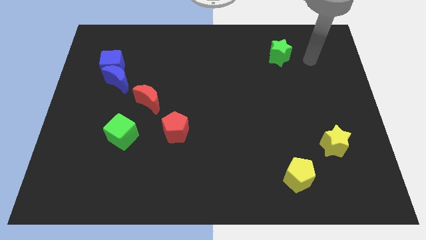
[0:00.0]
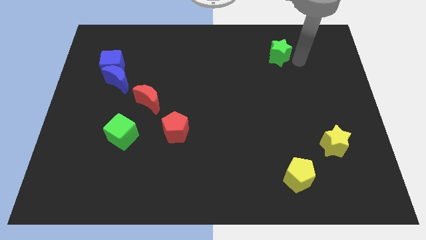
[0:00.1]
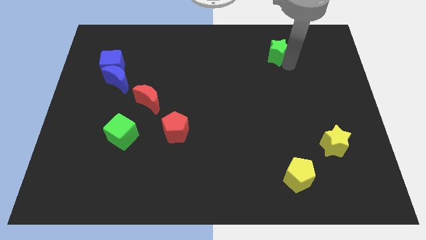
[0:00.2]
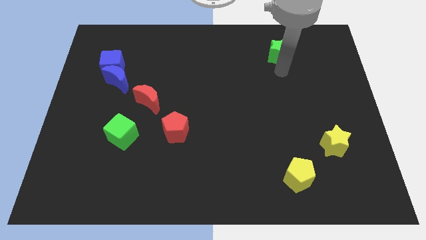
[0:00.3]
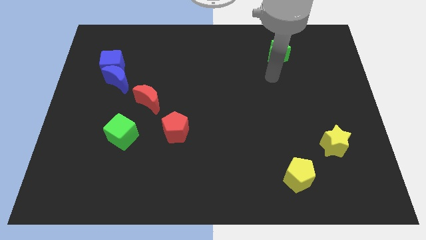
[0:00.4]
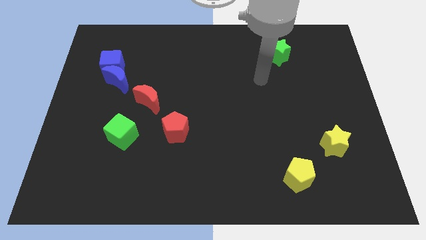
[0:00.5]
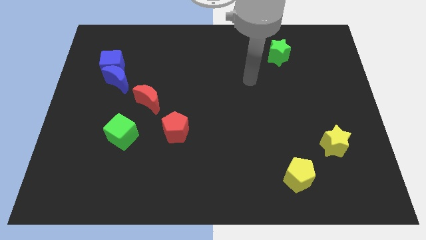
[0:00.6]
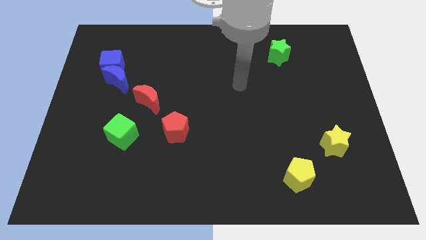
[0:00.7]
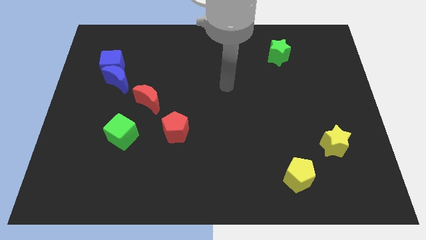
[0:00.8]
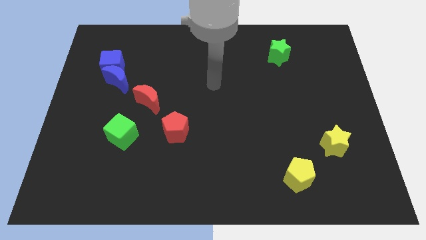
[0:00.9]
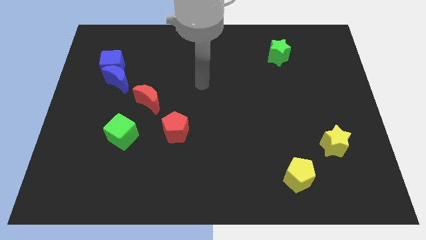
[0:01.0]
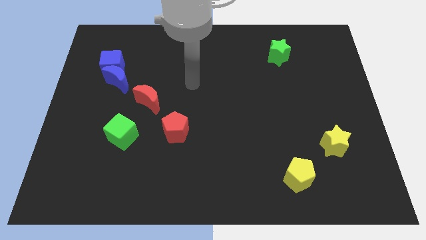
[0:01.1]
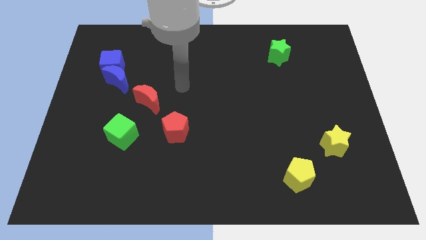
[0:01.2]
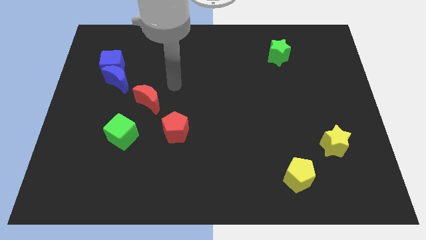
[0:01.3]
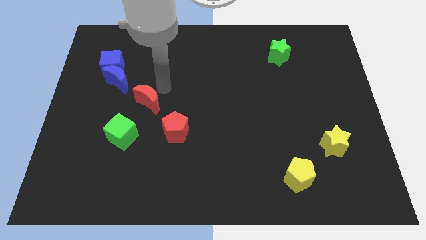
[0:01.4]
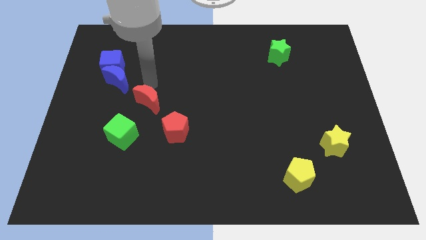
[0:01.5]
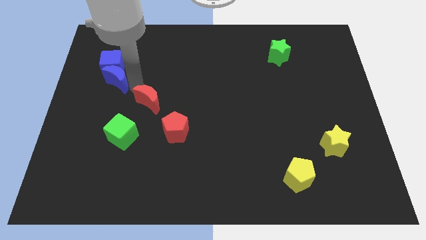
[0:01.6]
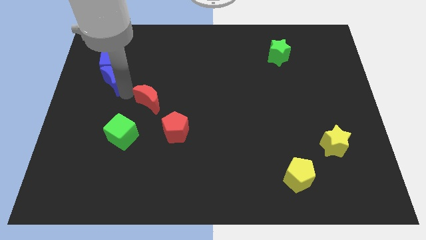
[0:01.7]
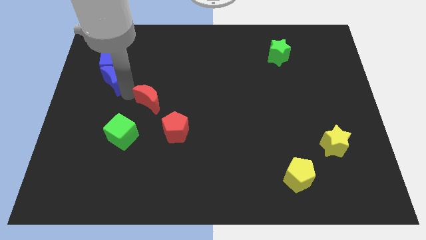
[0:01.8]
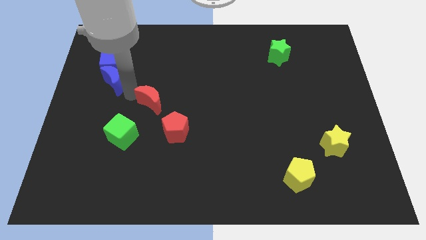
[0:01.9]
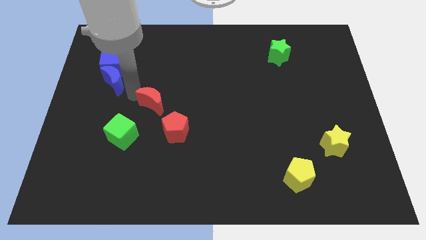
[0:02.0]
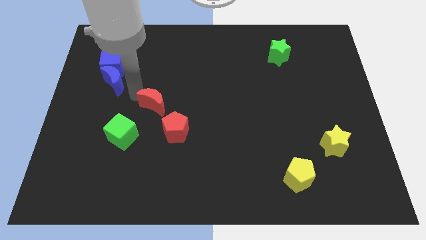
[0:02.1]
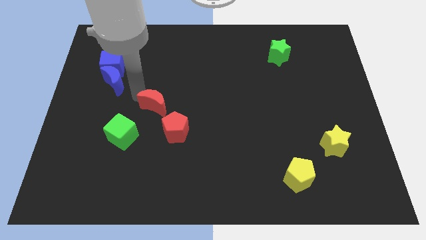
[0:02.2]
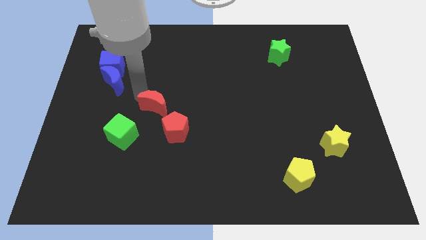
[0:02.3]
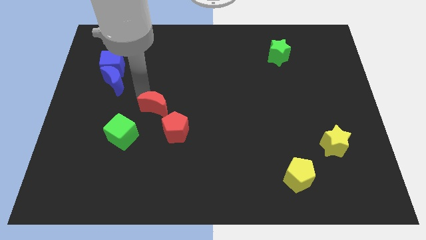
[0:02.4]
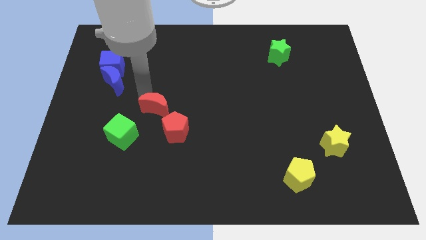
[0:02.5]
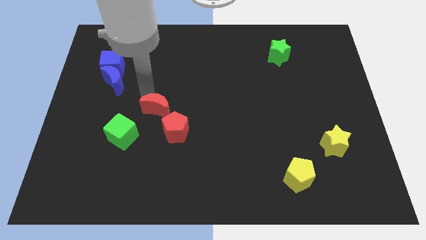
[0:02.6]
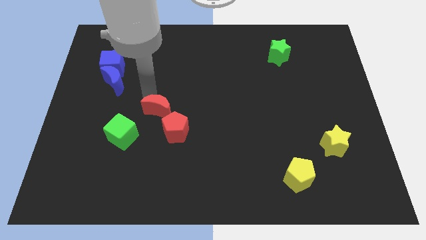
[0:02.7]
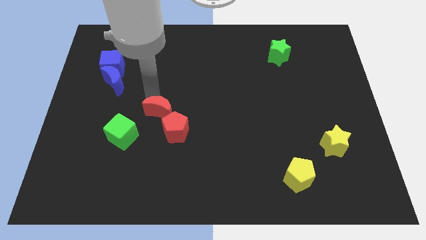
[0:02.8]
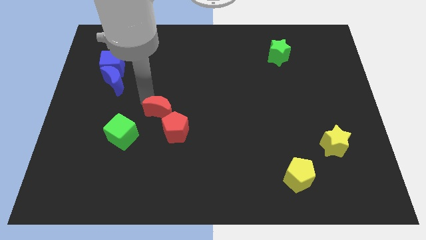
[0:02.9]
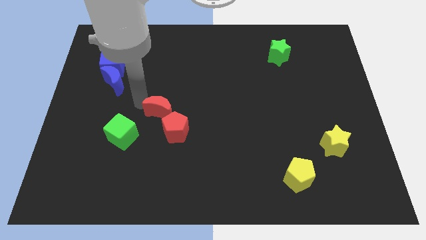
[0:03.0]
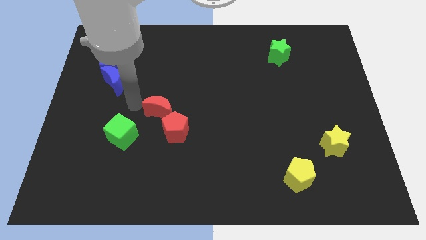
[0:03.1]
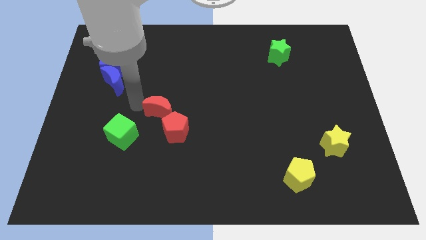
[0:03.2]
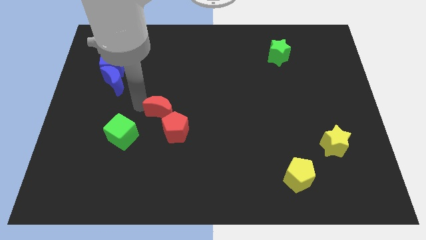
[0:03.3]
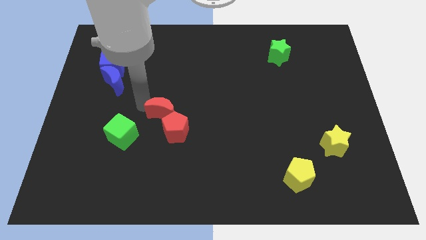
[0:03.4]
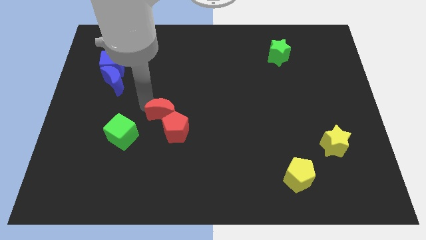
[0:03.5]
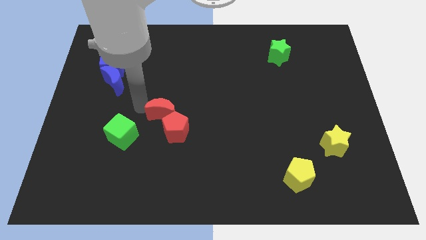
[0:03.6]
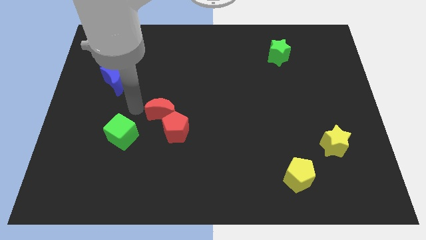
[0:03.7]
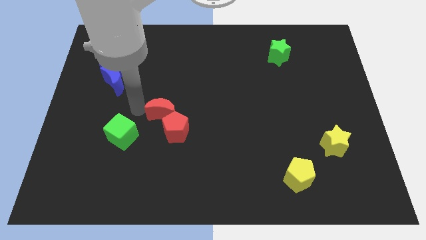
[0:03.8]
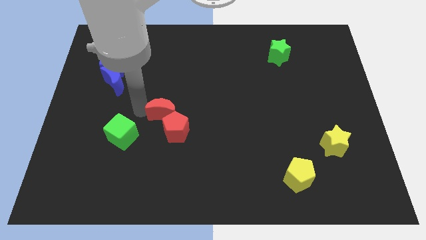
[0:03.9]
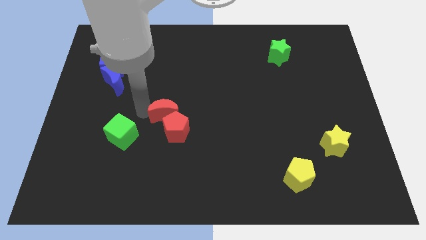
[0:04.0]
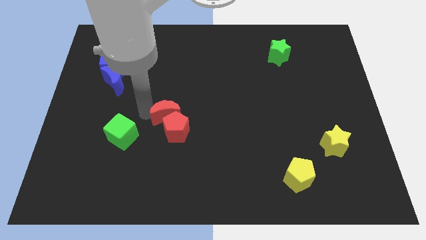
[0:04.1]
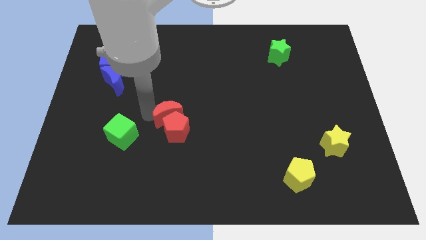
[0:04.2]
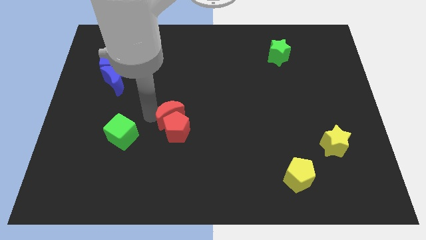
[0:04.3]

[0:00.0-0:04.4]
slightly move the red moon down and right diagonally

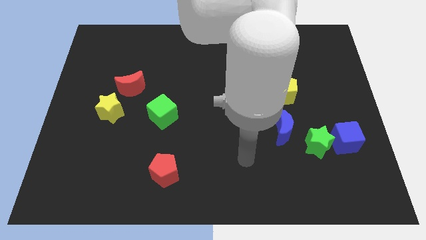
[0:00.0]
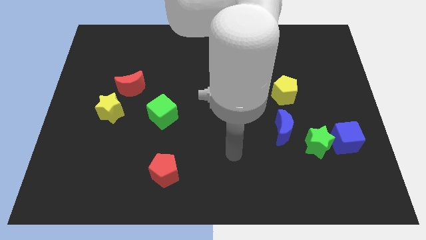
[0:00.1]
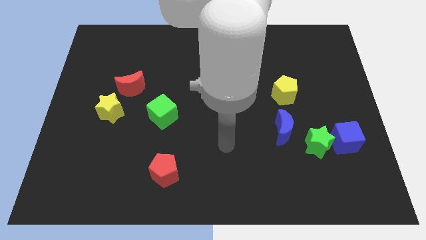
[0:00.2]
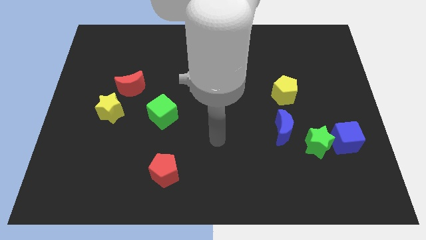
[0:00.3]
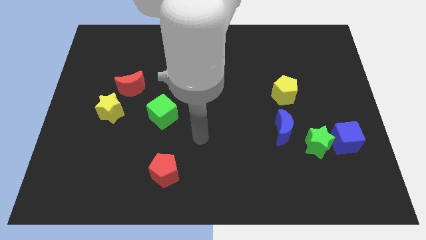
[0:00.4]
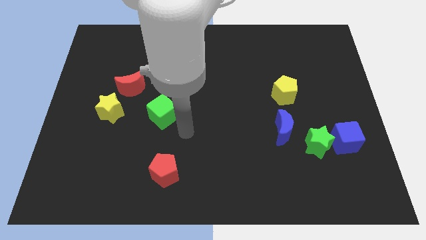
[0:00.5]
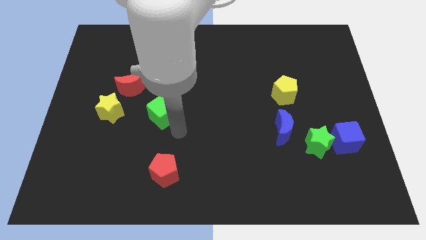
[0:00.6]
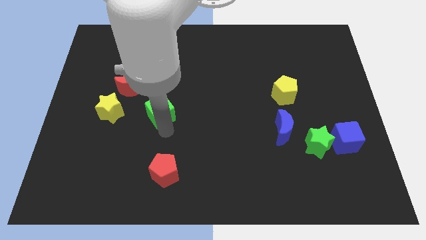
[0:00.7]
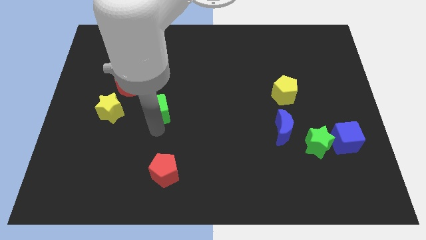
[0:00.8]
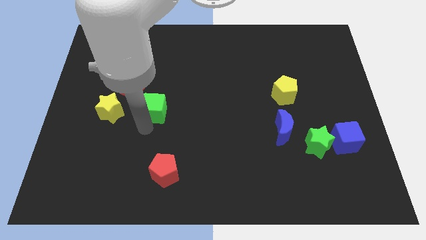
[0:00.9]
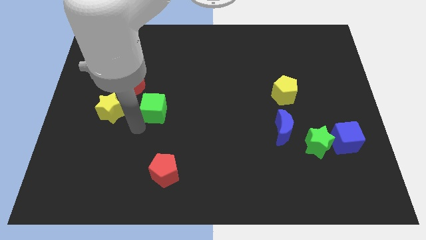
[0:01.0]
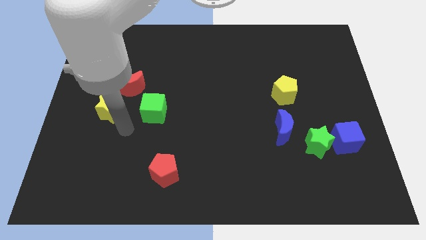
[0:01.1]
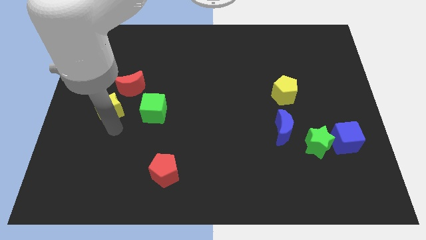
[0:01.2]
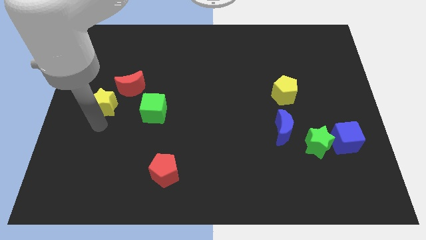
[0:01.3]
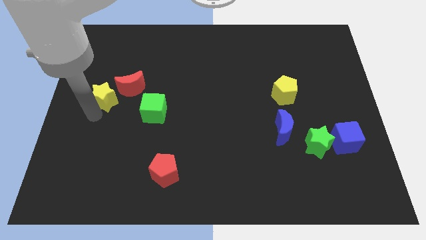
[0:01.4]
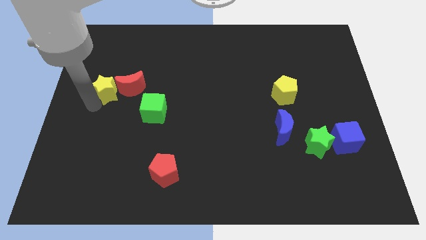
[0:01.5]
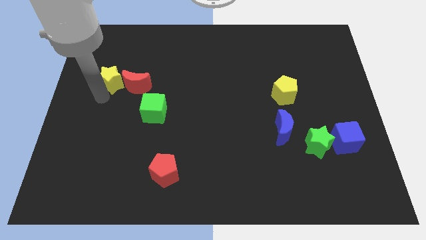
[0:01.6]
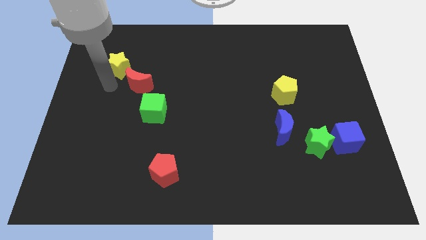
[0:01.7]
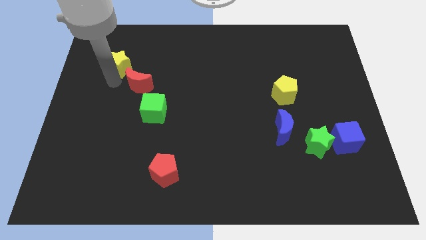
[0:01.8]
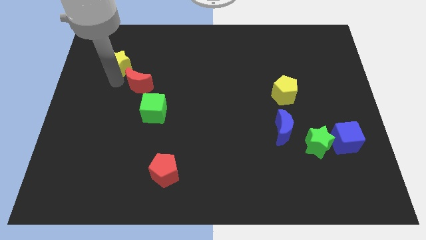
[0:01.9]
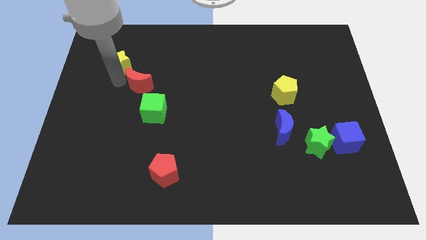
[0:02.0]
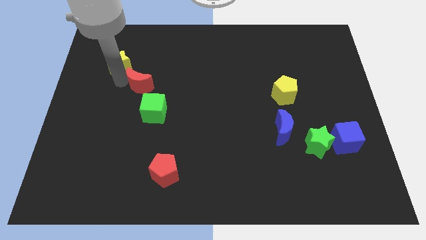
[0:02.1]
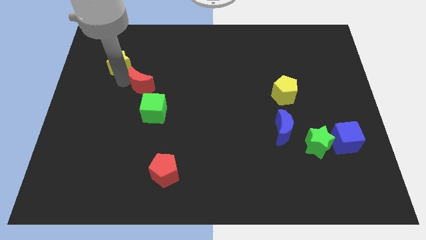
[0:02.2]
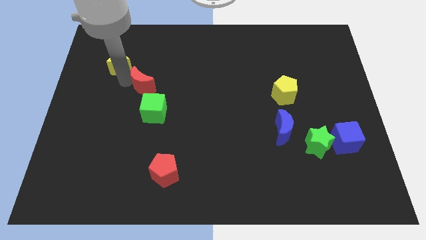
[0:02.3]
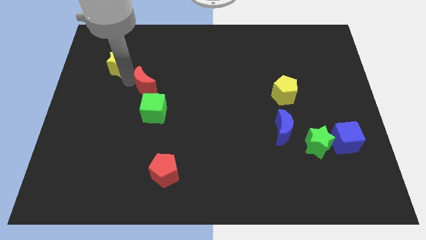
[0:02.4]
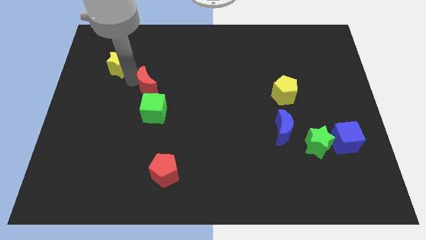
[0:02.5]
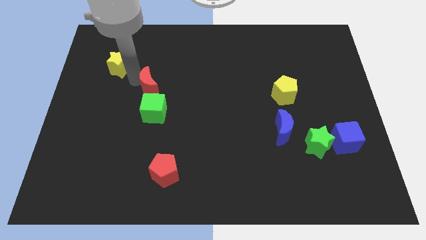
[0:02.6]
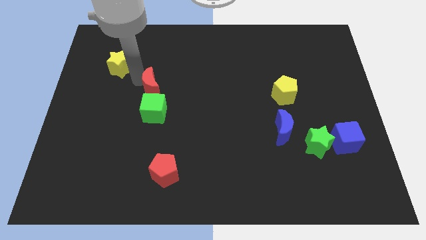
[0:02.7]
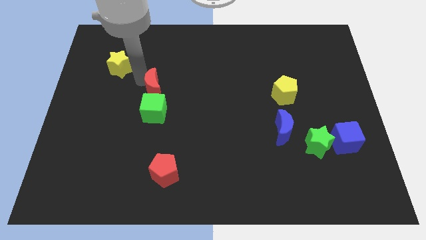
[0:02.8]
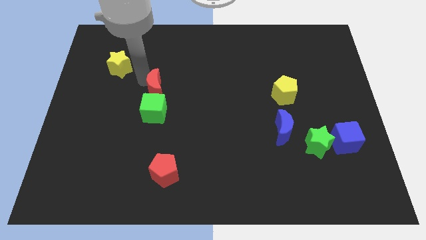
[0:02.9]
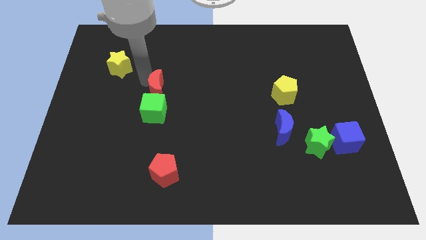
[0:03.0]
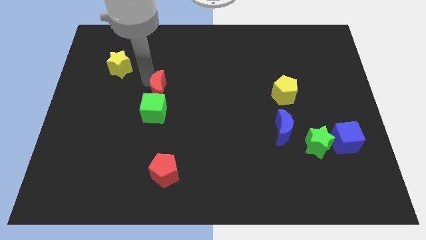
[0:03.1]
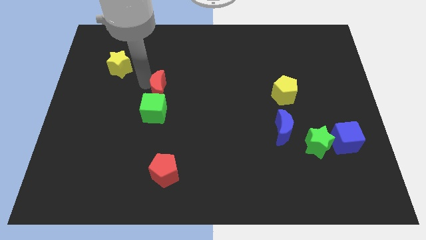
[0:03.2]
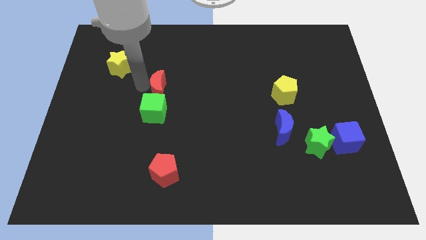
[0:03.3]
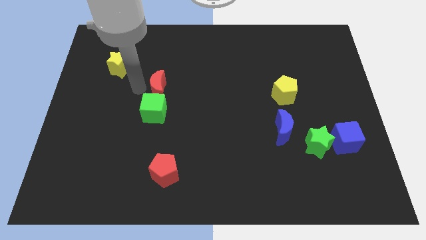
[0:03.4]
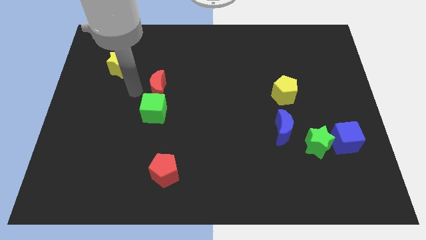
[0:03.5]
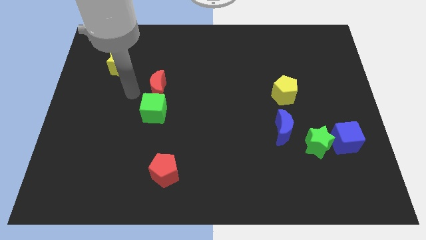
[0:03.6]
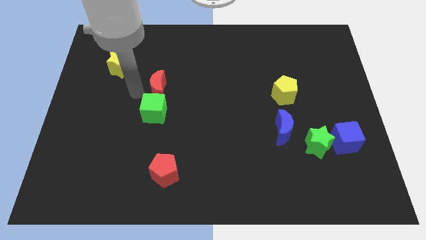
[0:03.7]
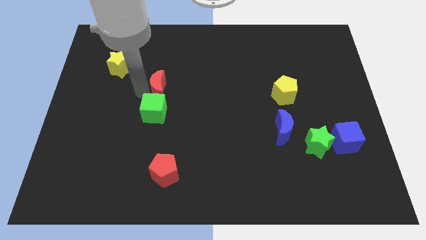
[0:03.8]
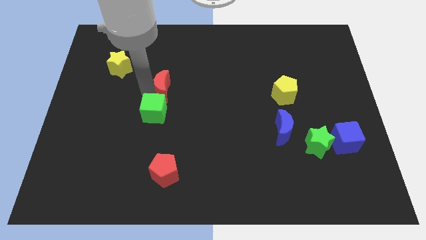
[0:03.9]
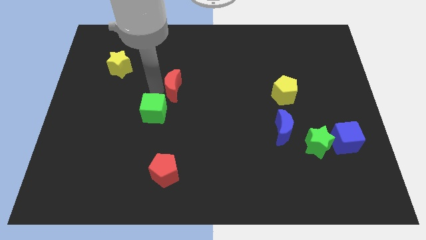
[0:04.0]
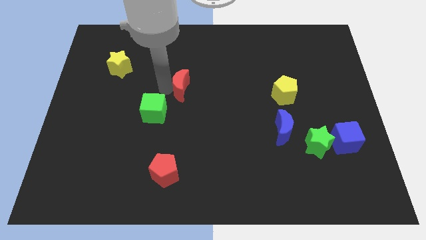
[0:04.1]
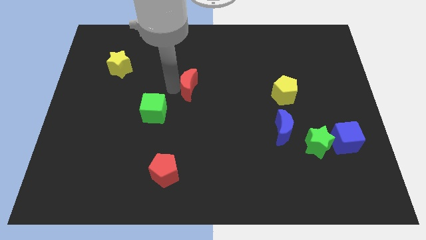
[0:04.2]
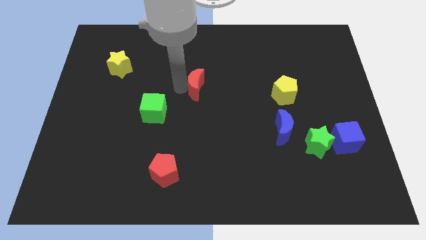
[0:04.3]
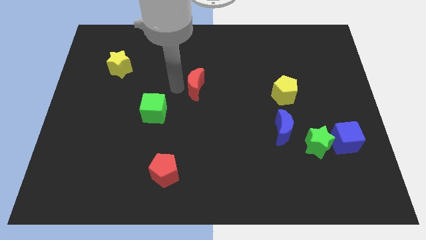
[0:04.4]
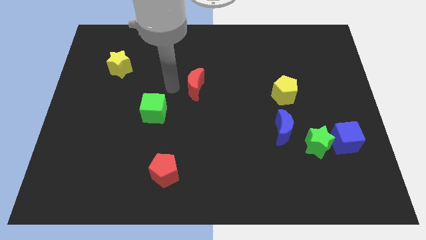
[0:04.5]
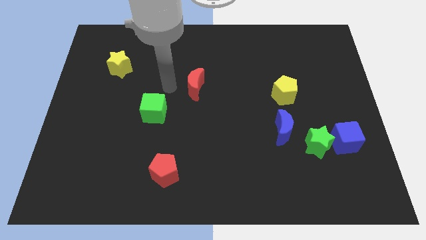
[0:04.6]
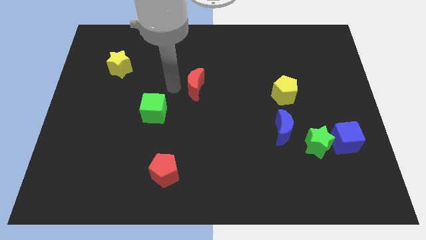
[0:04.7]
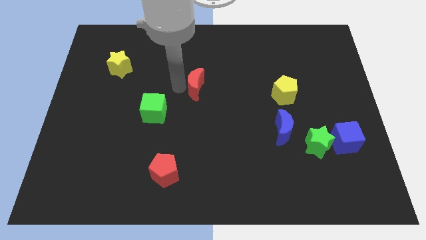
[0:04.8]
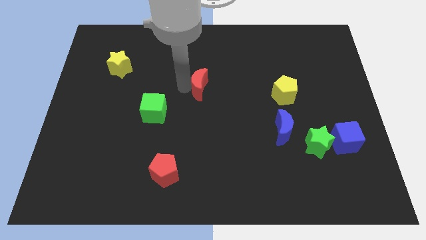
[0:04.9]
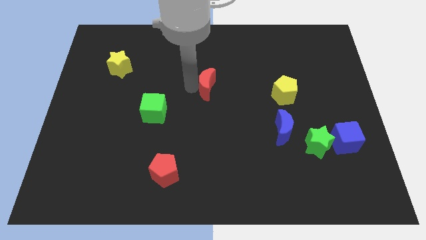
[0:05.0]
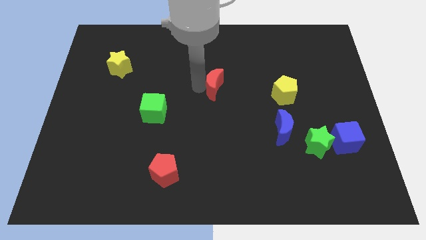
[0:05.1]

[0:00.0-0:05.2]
push the red moon to the right
